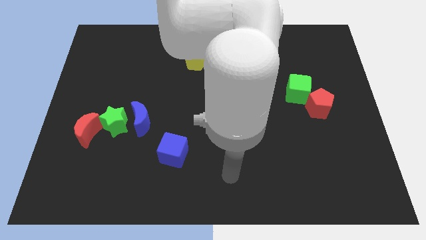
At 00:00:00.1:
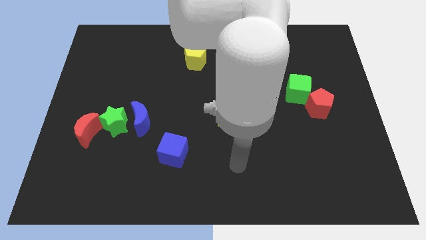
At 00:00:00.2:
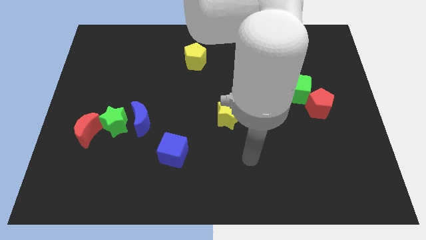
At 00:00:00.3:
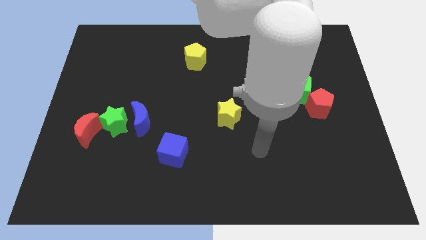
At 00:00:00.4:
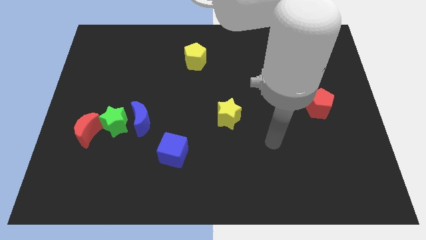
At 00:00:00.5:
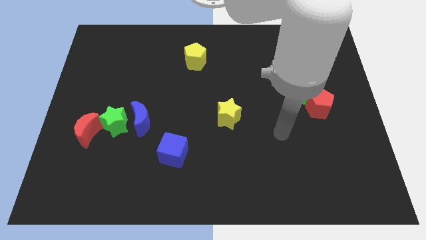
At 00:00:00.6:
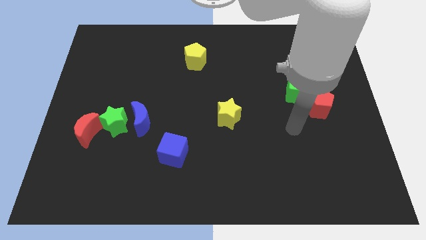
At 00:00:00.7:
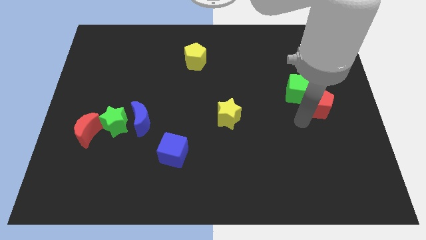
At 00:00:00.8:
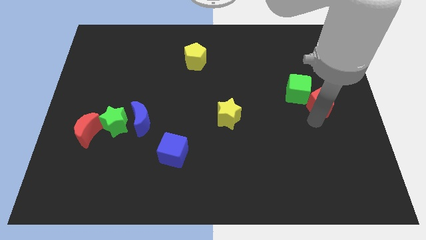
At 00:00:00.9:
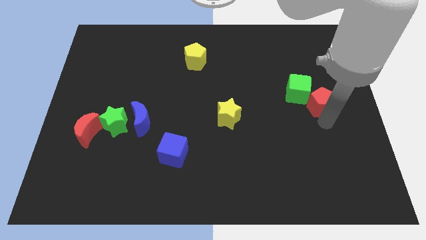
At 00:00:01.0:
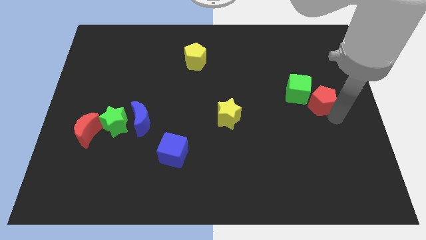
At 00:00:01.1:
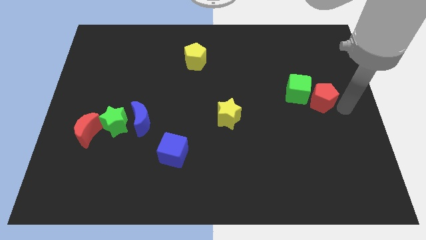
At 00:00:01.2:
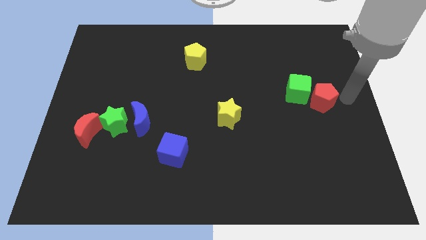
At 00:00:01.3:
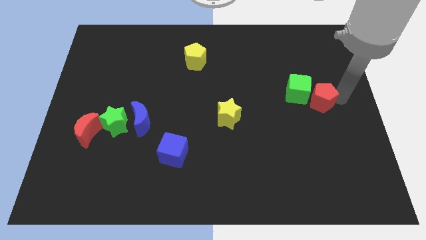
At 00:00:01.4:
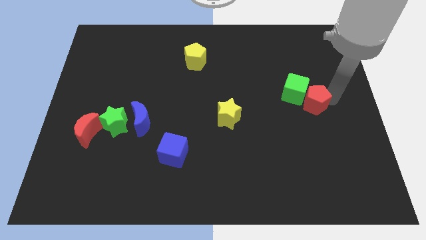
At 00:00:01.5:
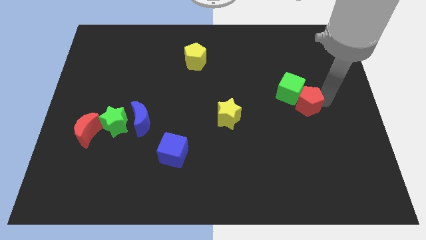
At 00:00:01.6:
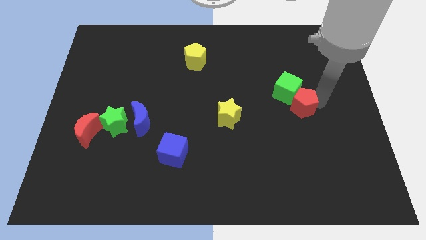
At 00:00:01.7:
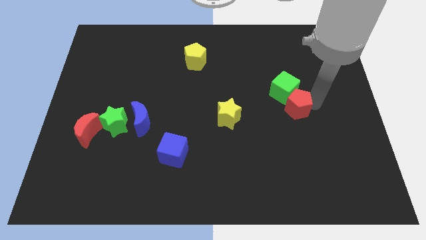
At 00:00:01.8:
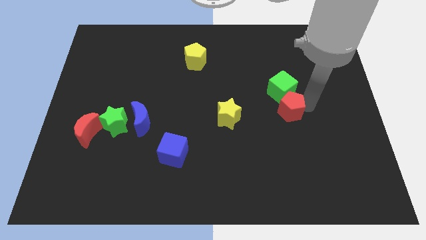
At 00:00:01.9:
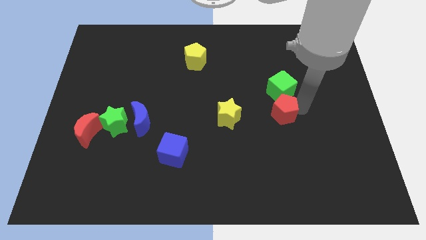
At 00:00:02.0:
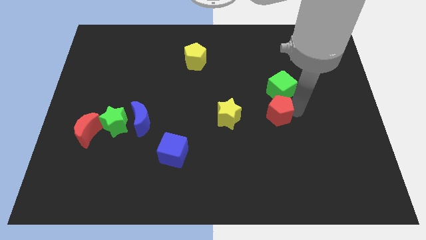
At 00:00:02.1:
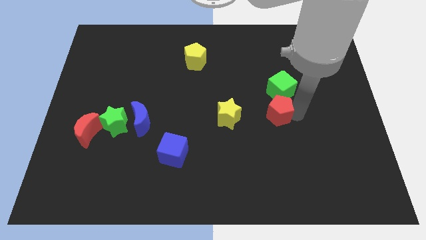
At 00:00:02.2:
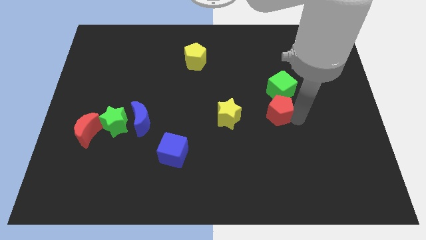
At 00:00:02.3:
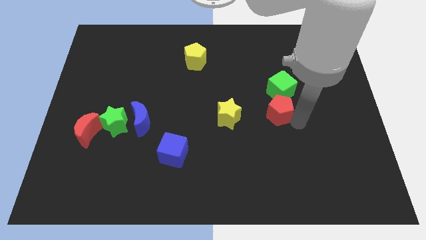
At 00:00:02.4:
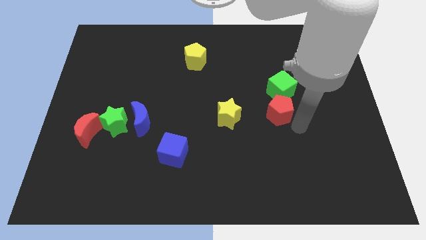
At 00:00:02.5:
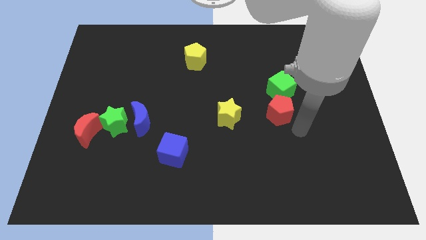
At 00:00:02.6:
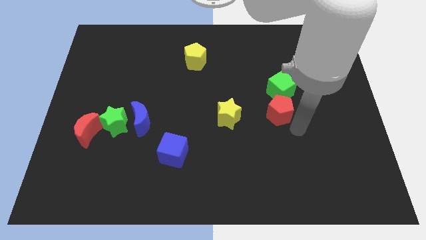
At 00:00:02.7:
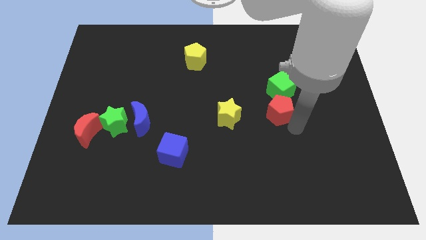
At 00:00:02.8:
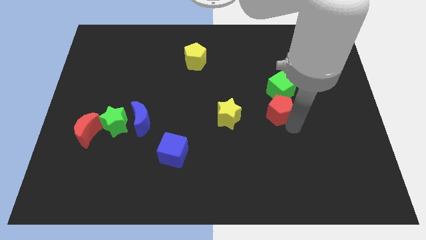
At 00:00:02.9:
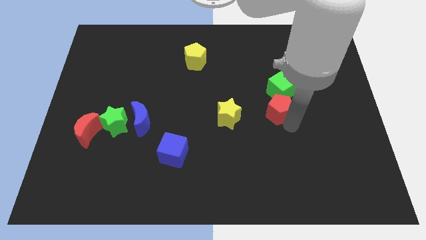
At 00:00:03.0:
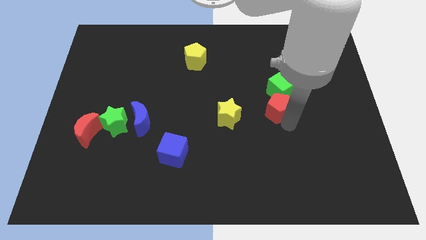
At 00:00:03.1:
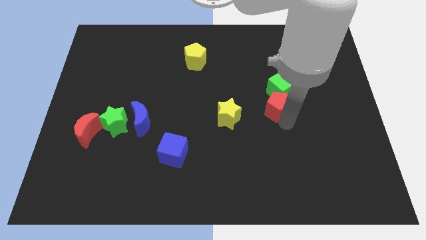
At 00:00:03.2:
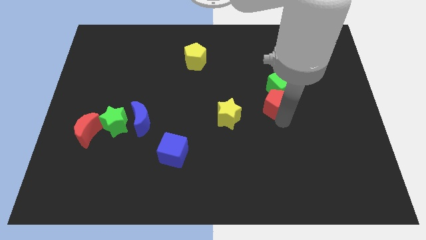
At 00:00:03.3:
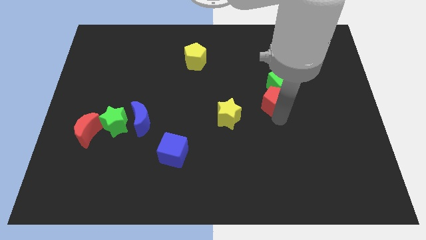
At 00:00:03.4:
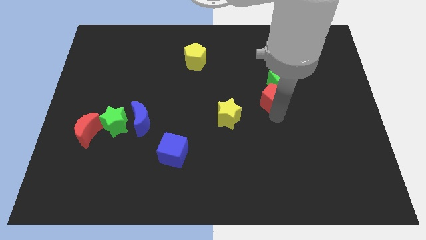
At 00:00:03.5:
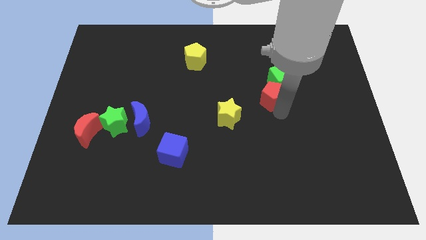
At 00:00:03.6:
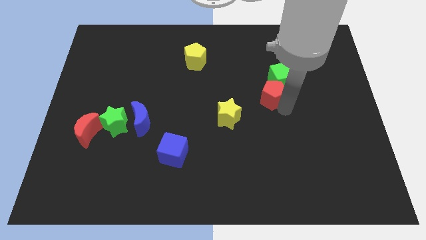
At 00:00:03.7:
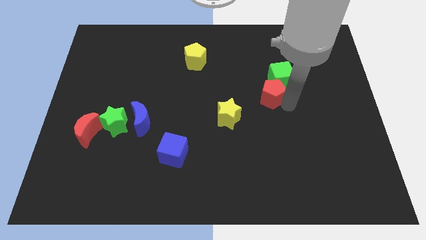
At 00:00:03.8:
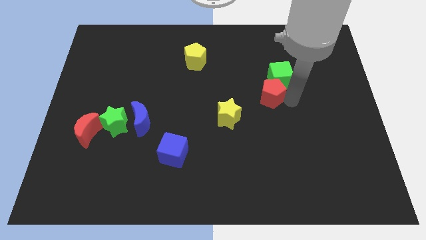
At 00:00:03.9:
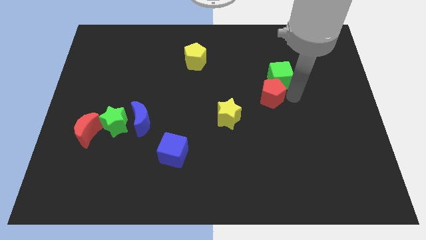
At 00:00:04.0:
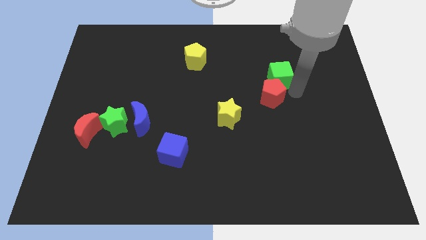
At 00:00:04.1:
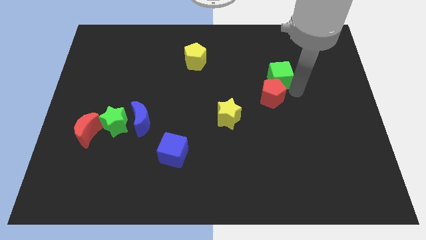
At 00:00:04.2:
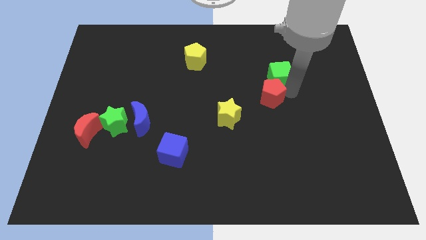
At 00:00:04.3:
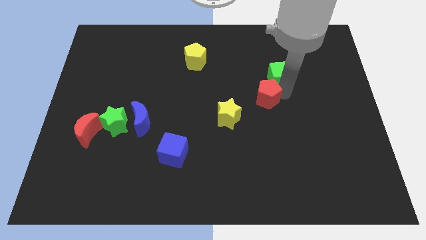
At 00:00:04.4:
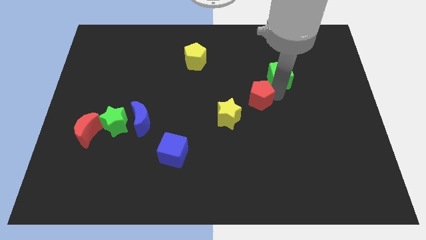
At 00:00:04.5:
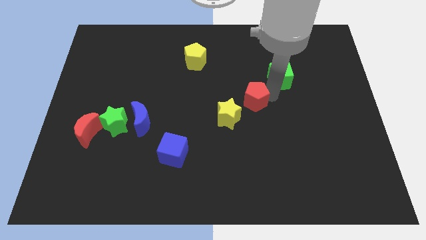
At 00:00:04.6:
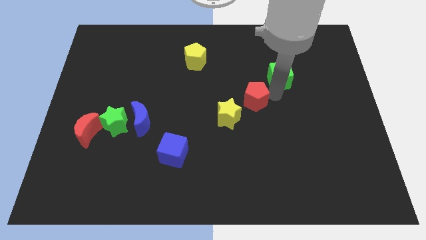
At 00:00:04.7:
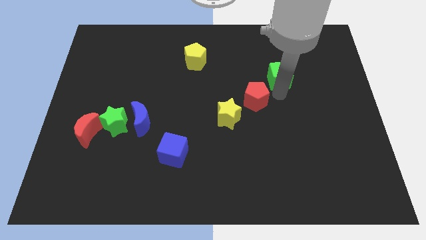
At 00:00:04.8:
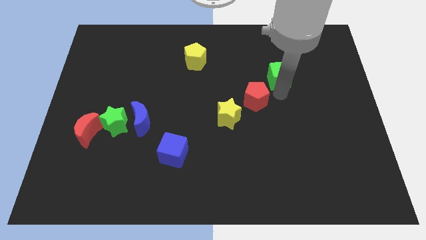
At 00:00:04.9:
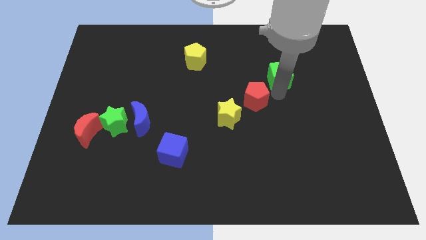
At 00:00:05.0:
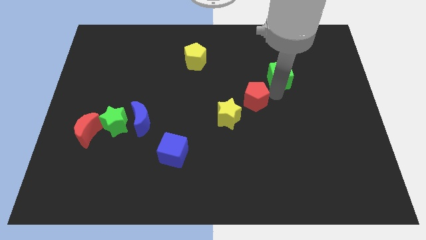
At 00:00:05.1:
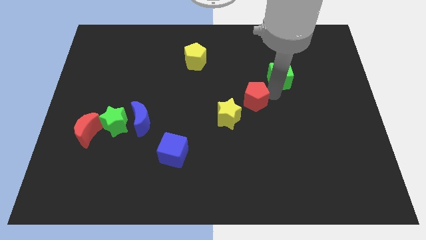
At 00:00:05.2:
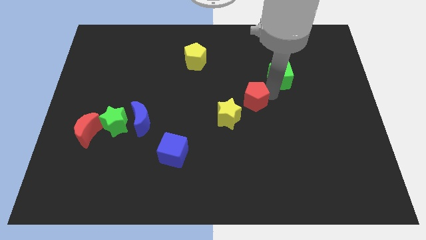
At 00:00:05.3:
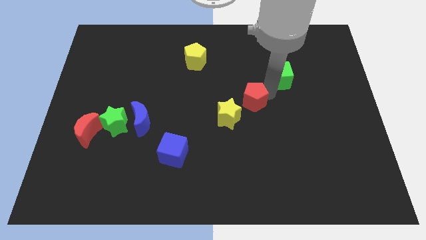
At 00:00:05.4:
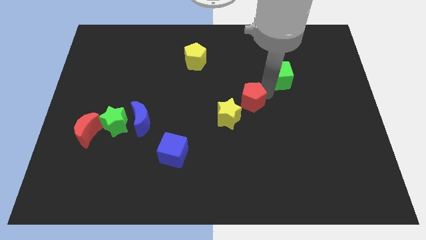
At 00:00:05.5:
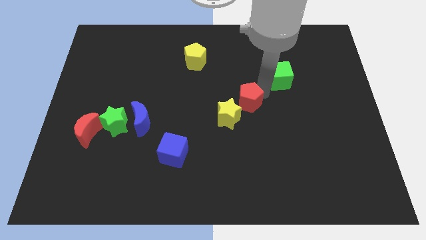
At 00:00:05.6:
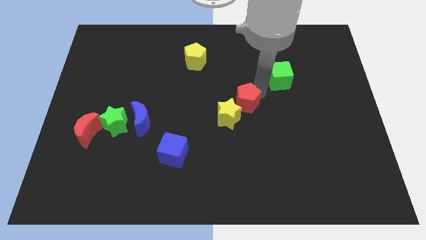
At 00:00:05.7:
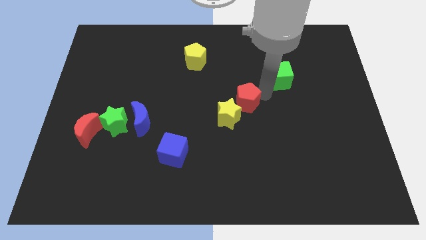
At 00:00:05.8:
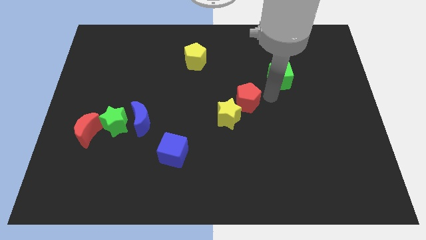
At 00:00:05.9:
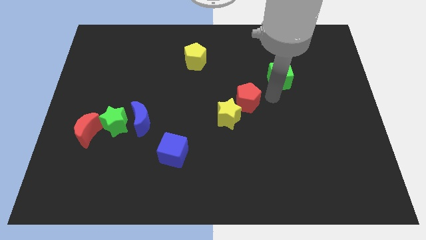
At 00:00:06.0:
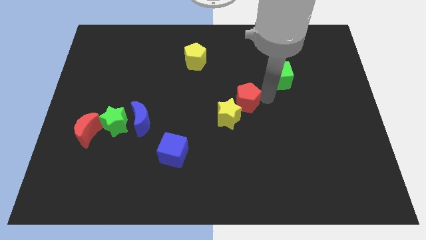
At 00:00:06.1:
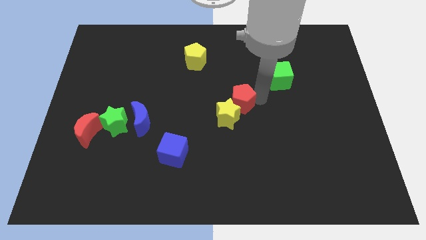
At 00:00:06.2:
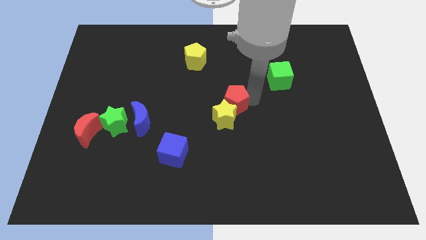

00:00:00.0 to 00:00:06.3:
push the red pentagon to the left

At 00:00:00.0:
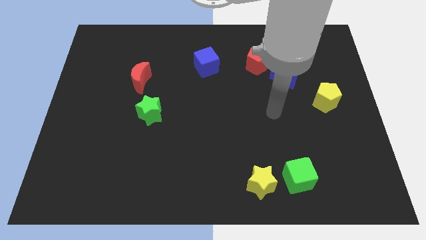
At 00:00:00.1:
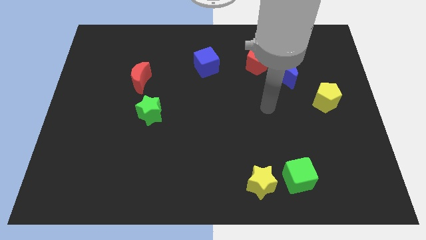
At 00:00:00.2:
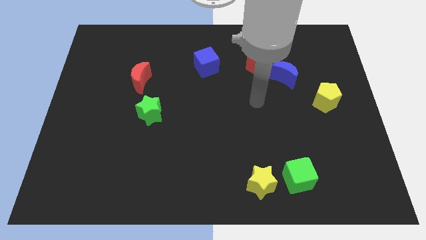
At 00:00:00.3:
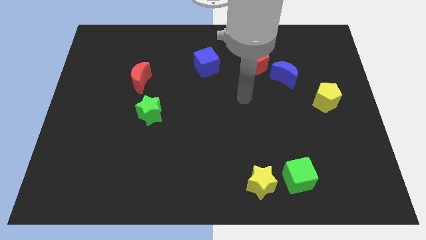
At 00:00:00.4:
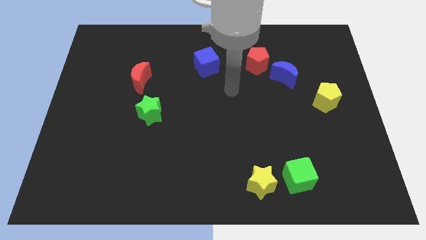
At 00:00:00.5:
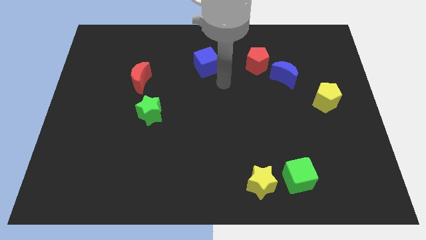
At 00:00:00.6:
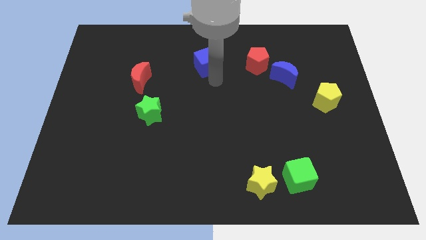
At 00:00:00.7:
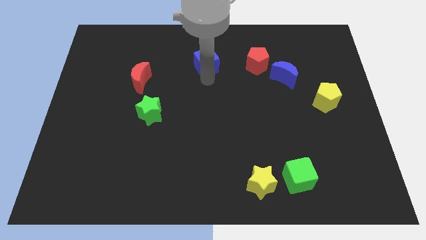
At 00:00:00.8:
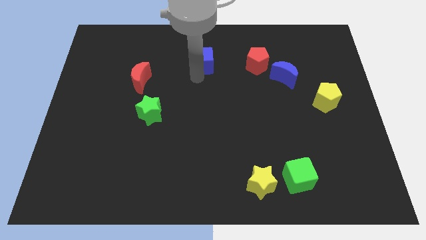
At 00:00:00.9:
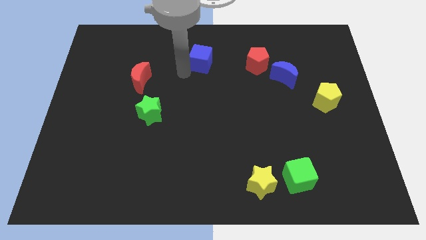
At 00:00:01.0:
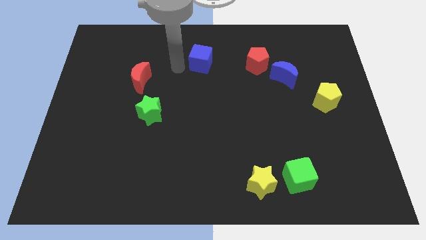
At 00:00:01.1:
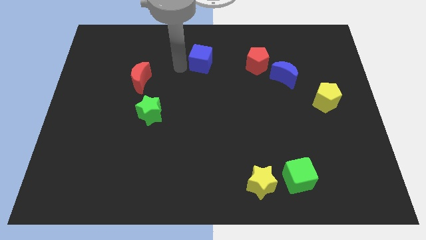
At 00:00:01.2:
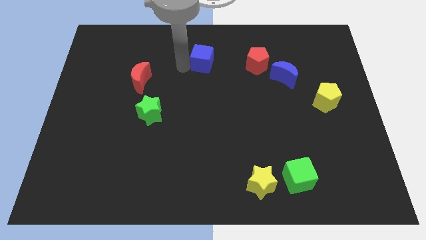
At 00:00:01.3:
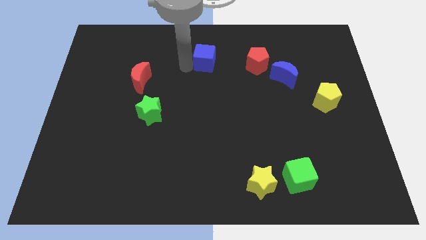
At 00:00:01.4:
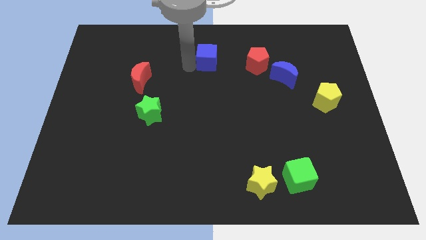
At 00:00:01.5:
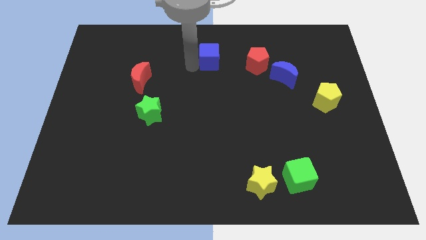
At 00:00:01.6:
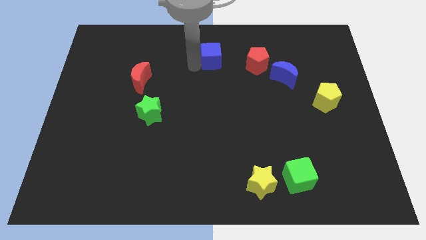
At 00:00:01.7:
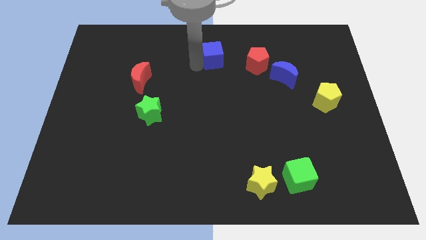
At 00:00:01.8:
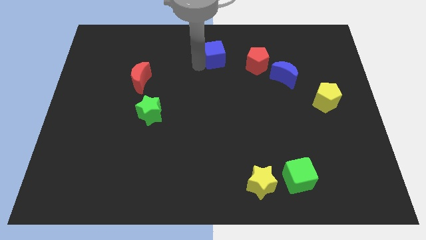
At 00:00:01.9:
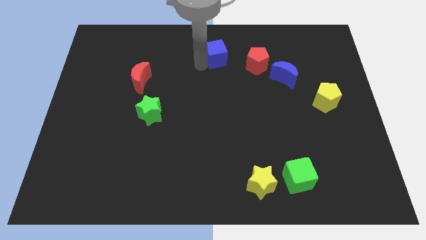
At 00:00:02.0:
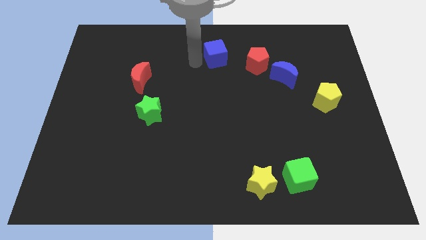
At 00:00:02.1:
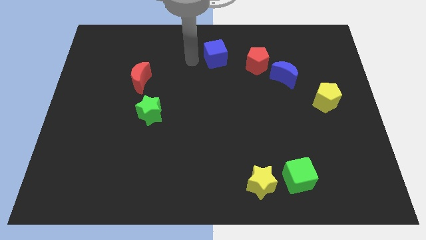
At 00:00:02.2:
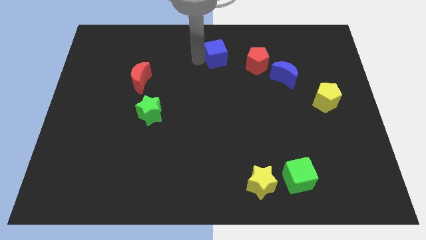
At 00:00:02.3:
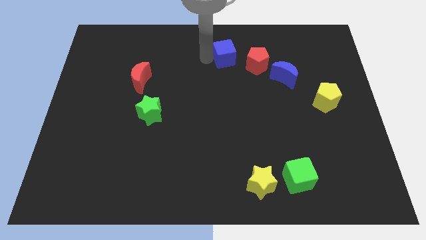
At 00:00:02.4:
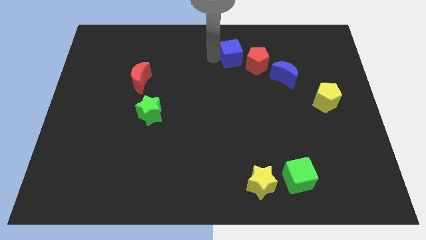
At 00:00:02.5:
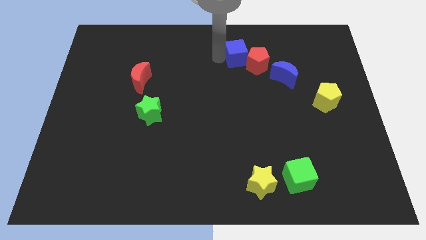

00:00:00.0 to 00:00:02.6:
slightly push the blue cube to the right
